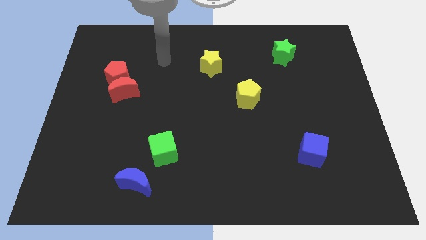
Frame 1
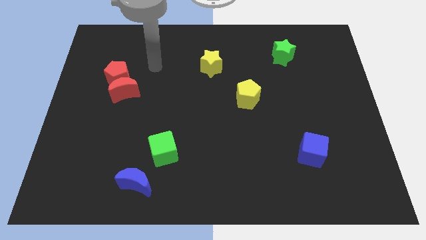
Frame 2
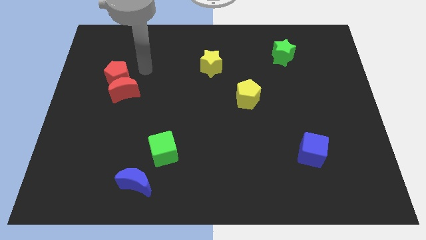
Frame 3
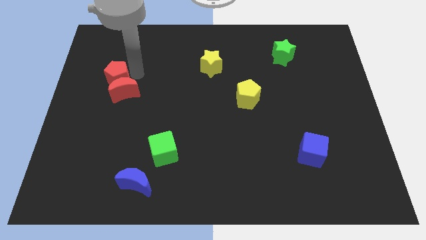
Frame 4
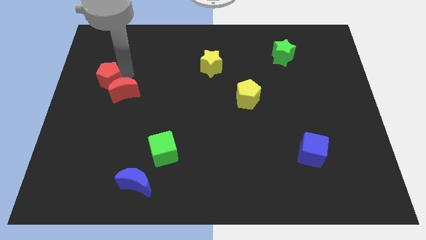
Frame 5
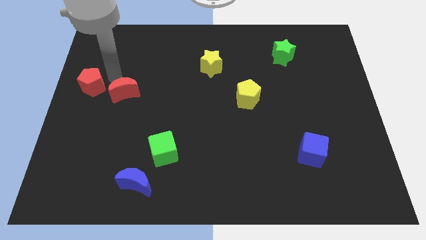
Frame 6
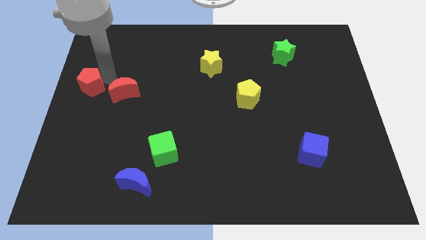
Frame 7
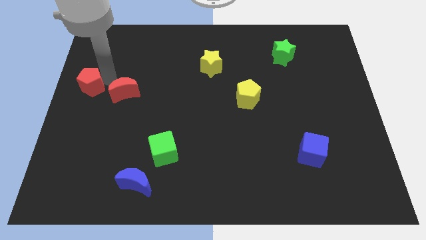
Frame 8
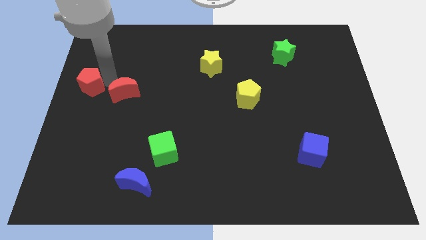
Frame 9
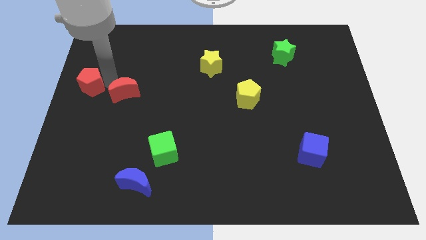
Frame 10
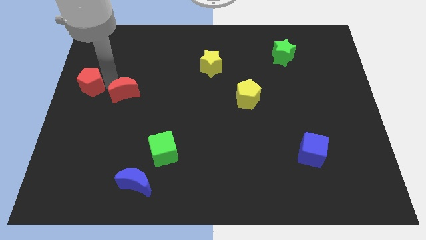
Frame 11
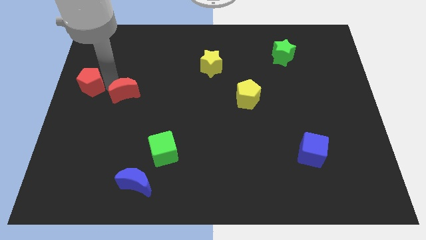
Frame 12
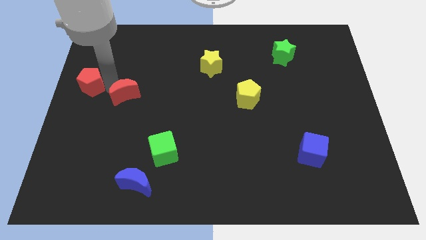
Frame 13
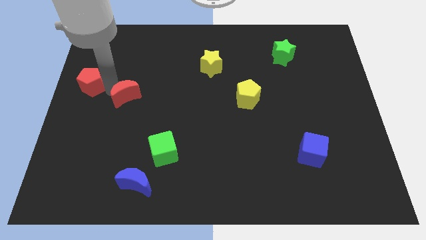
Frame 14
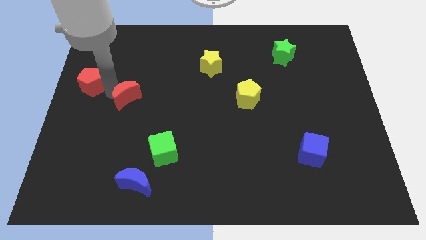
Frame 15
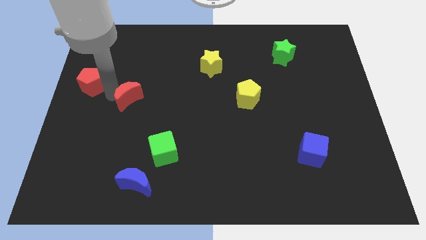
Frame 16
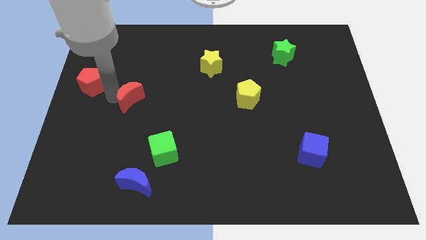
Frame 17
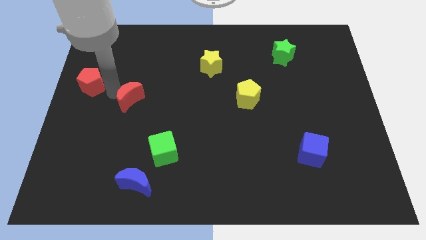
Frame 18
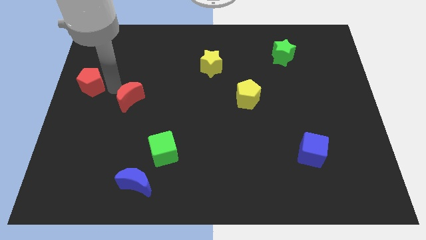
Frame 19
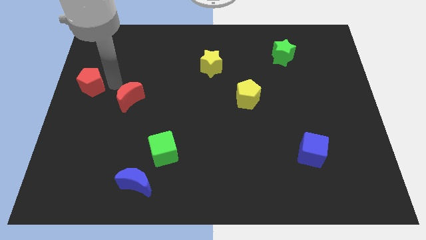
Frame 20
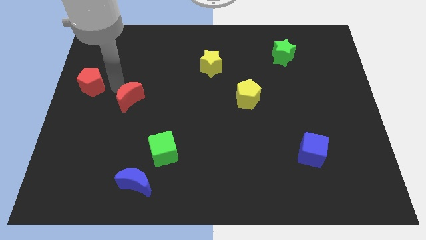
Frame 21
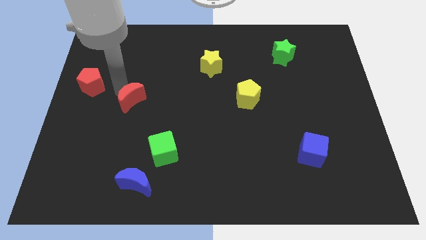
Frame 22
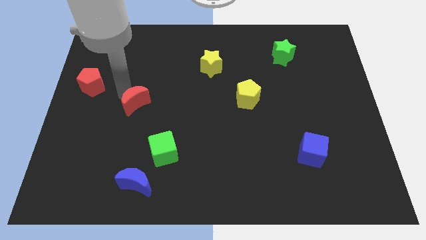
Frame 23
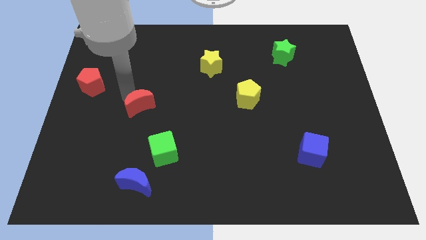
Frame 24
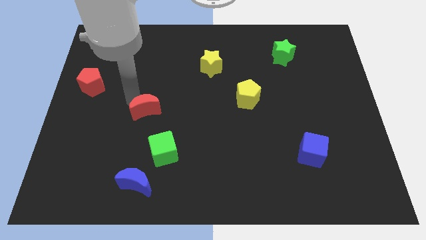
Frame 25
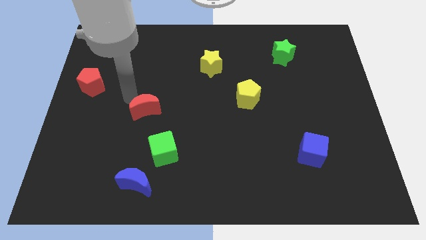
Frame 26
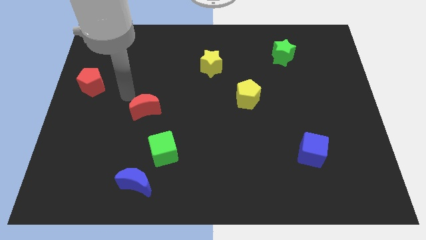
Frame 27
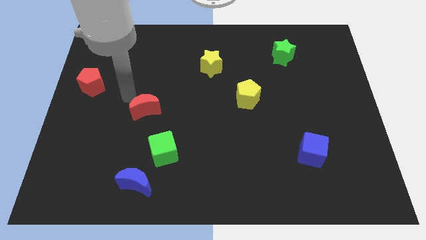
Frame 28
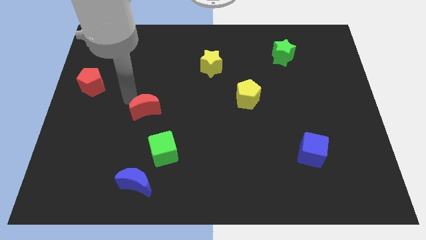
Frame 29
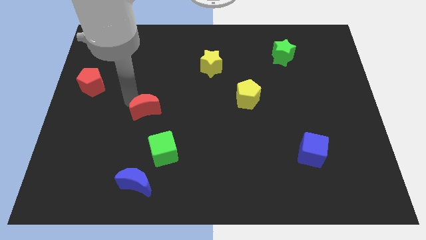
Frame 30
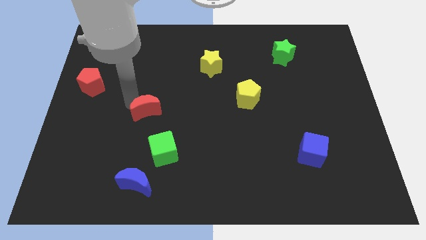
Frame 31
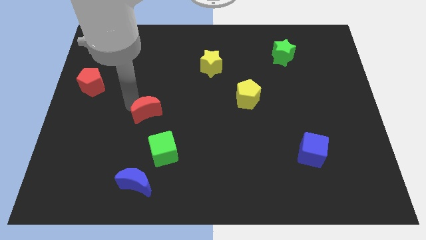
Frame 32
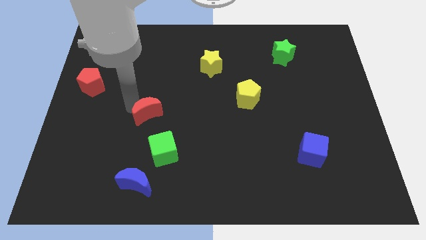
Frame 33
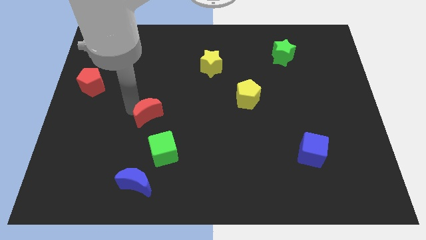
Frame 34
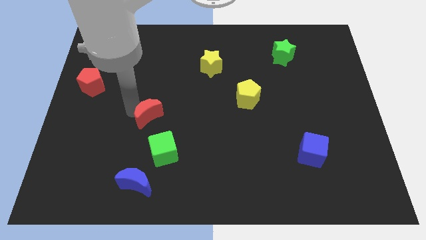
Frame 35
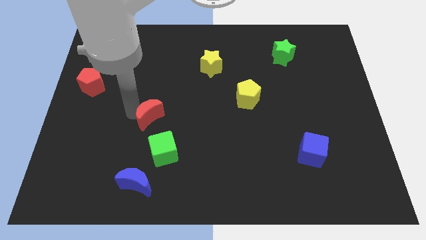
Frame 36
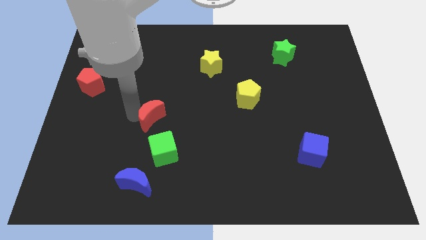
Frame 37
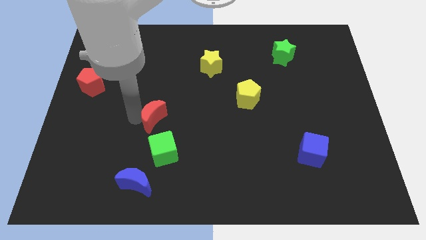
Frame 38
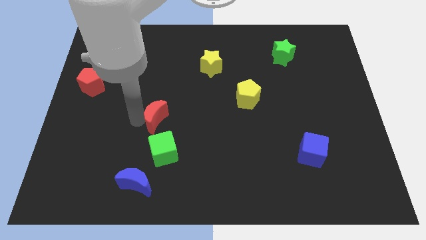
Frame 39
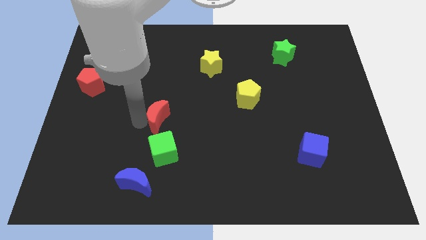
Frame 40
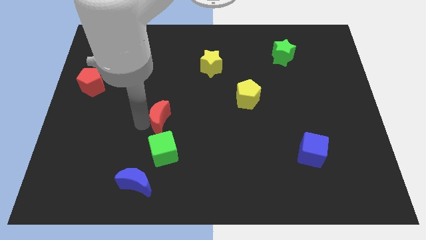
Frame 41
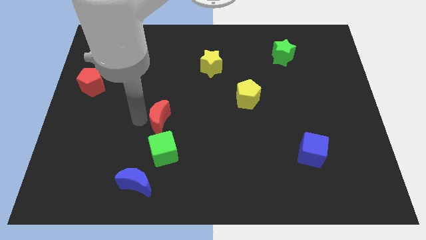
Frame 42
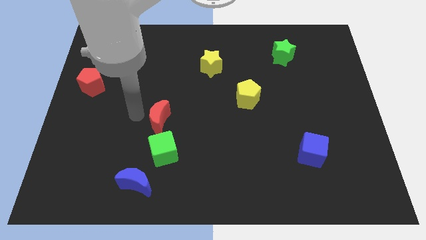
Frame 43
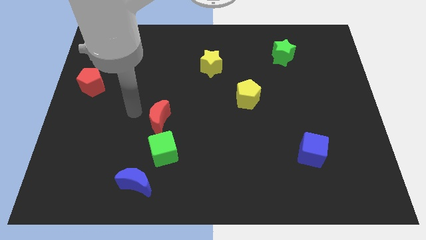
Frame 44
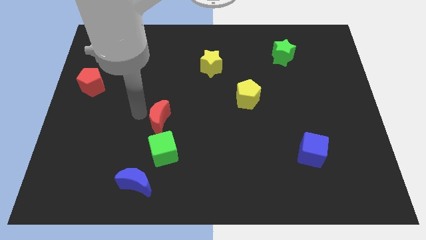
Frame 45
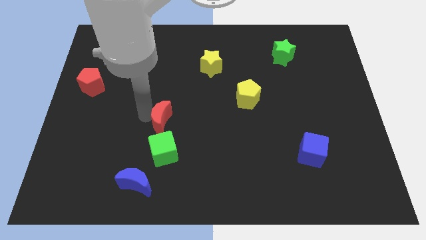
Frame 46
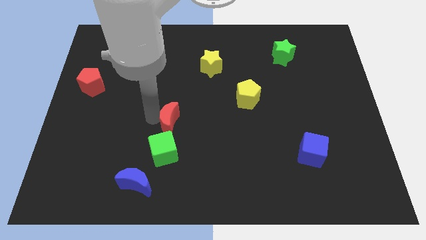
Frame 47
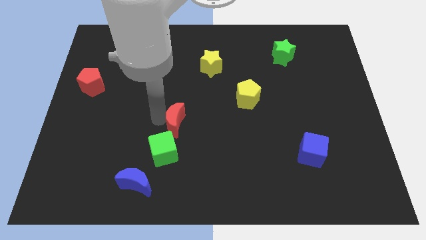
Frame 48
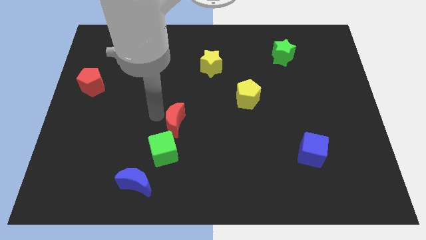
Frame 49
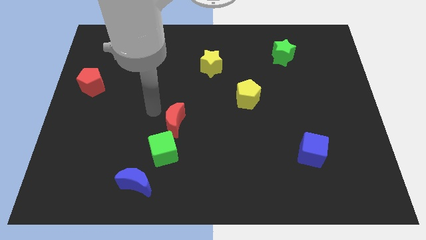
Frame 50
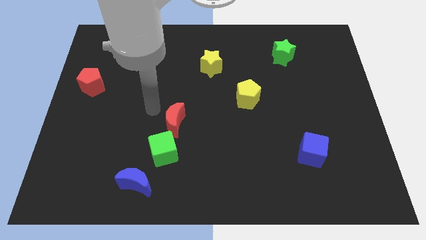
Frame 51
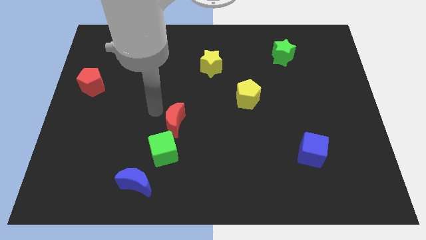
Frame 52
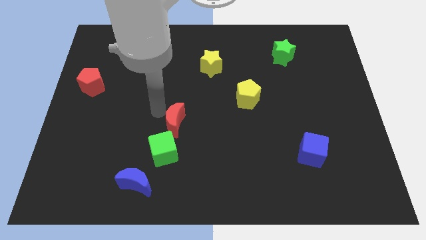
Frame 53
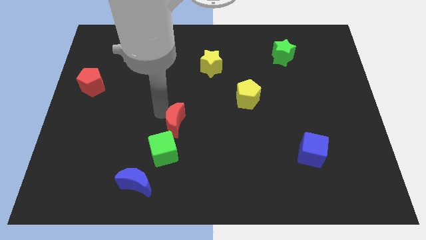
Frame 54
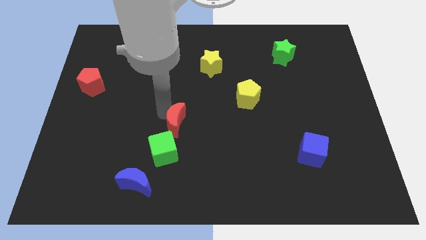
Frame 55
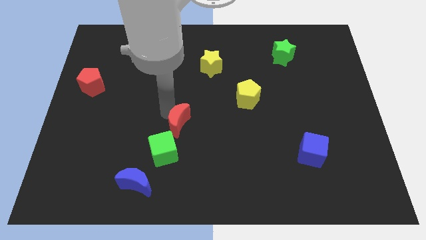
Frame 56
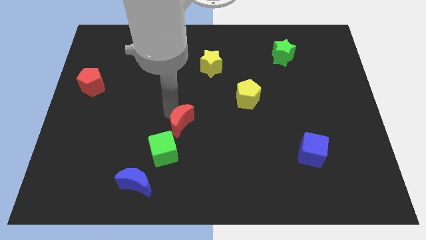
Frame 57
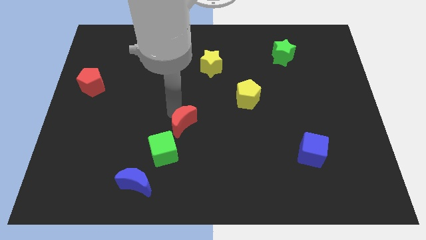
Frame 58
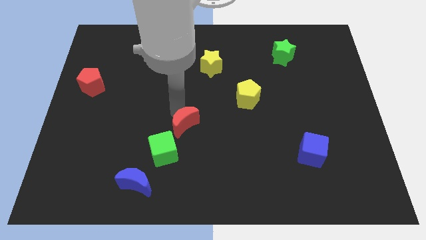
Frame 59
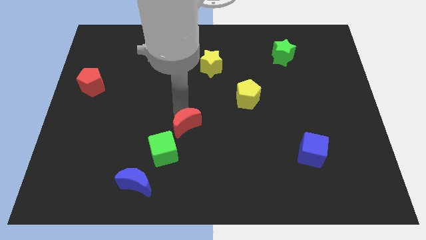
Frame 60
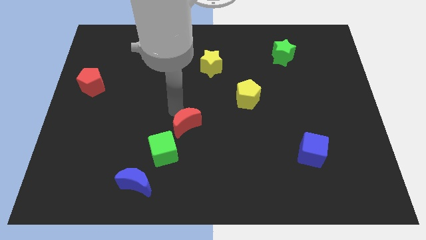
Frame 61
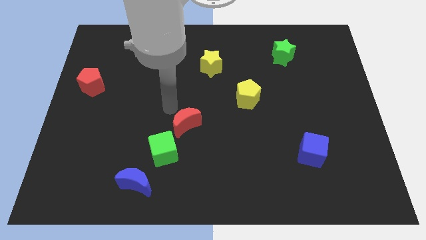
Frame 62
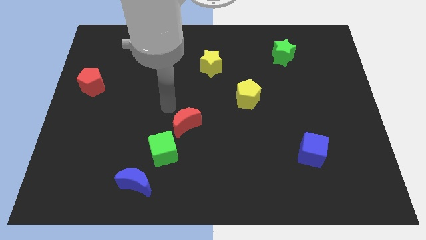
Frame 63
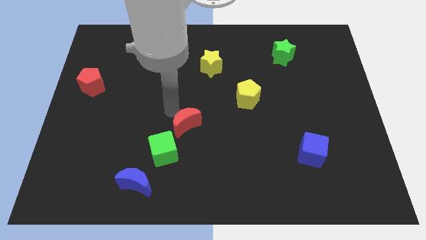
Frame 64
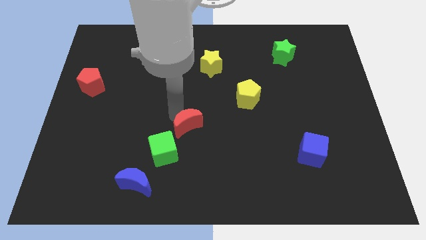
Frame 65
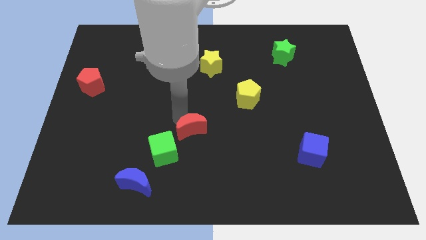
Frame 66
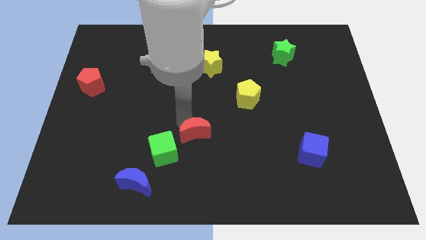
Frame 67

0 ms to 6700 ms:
move the red moon to the right side of the green cube

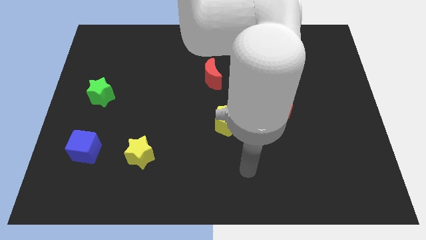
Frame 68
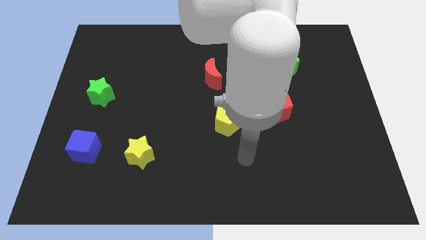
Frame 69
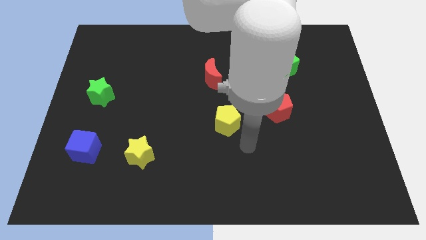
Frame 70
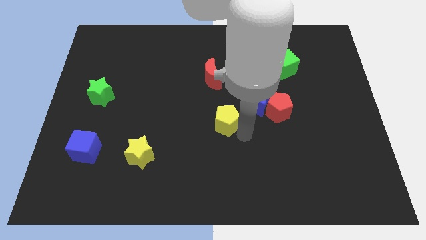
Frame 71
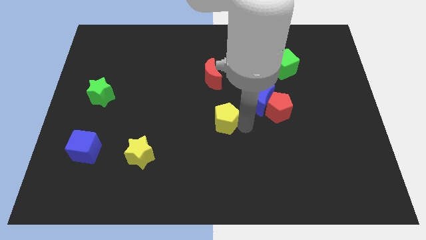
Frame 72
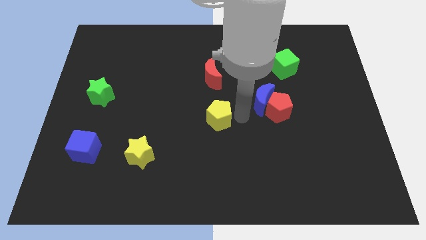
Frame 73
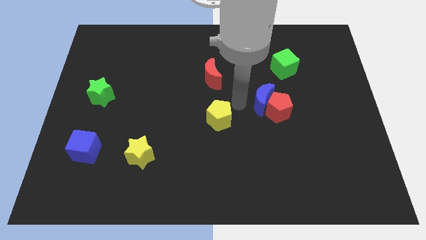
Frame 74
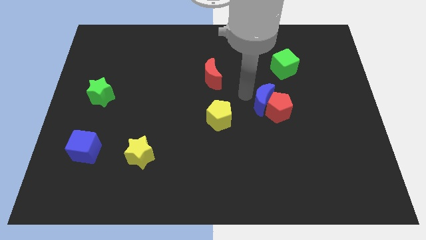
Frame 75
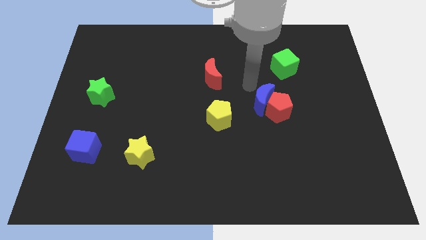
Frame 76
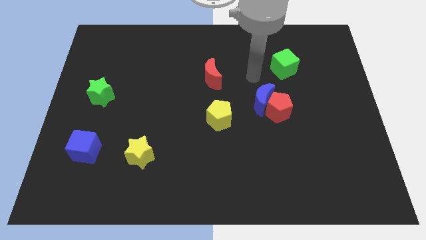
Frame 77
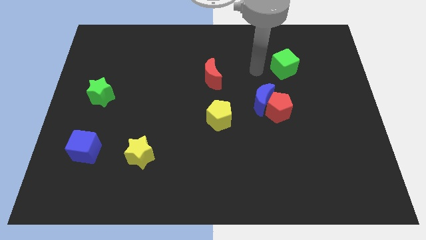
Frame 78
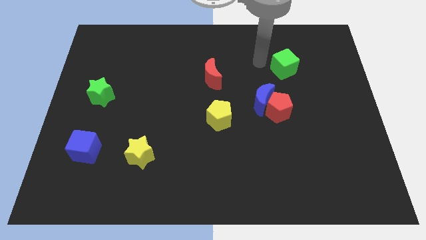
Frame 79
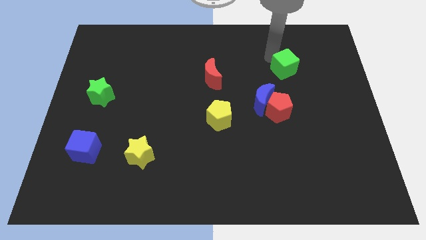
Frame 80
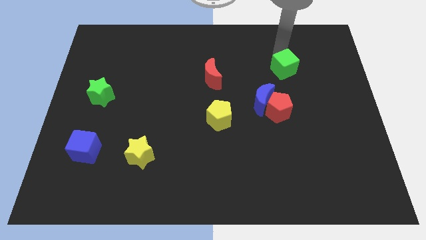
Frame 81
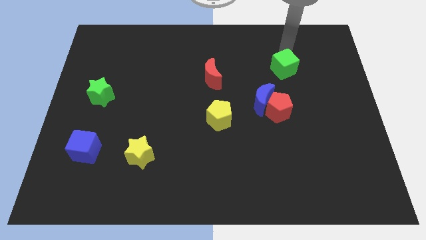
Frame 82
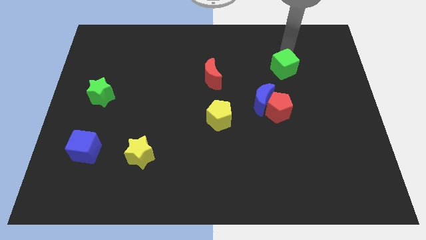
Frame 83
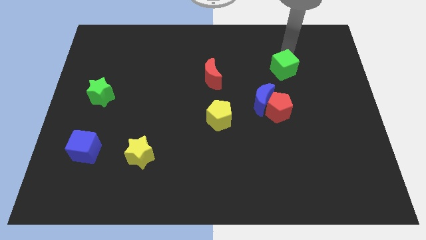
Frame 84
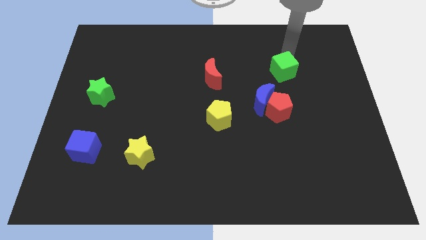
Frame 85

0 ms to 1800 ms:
put the green cube to the top right of the blue moon
